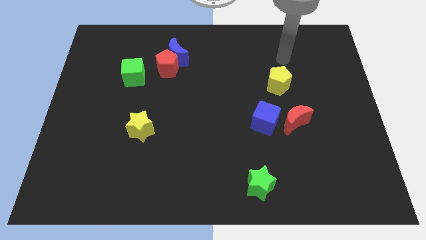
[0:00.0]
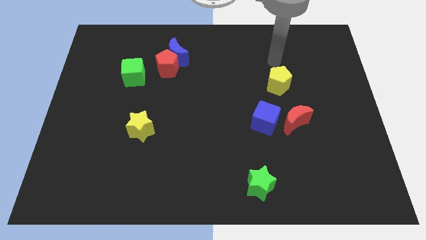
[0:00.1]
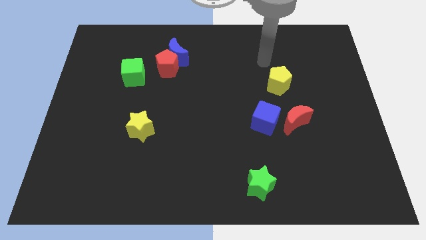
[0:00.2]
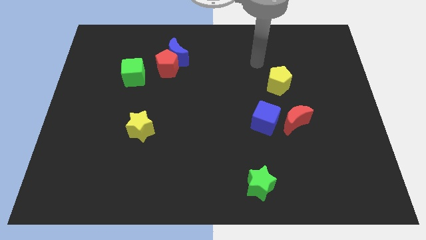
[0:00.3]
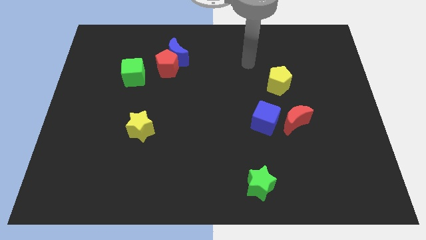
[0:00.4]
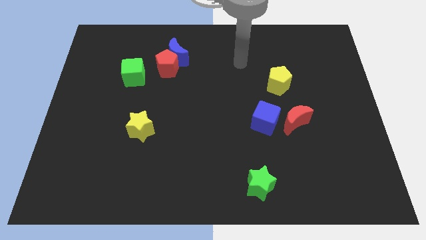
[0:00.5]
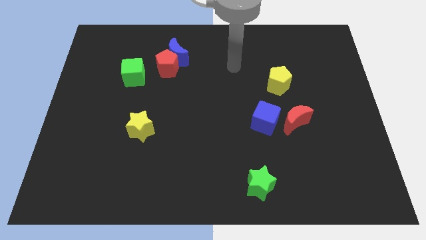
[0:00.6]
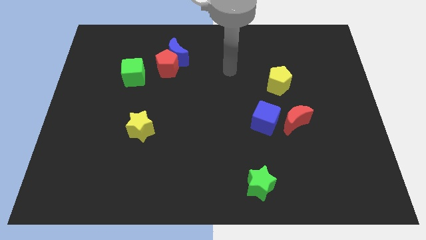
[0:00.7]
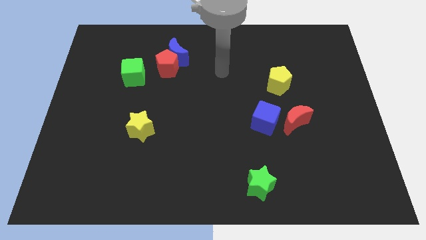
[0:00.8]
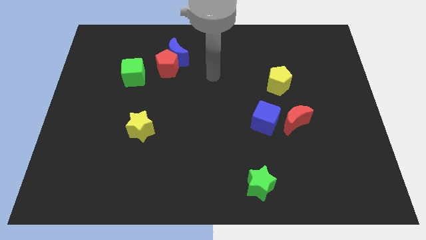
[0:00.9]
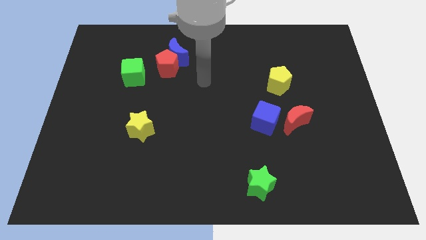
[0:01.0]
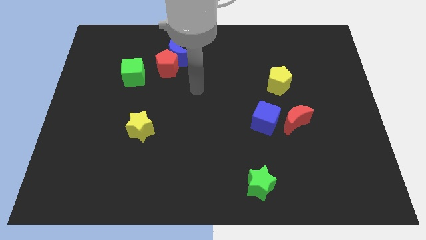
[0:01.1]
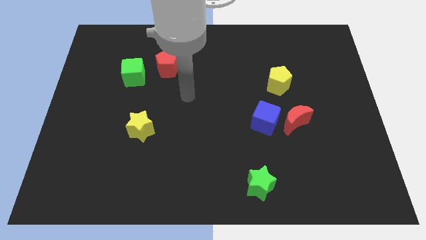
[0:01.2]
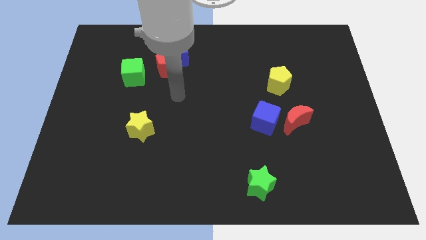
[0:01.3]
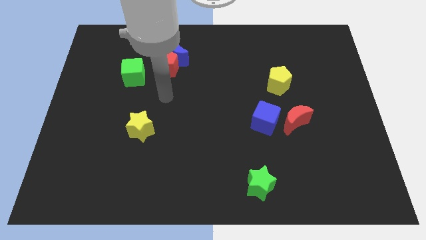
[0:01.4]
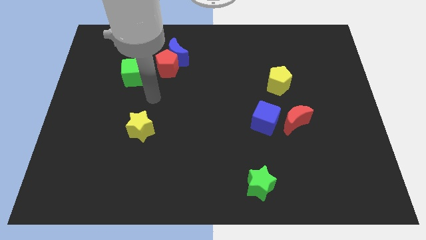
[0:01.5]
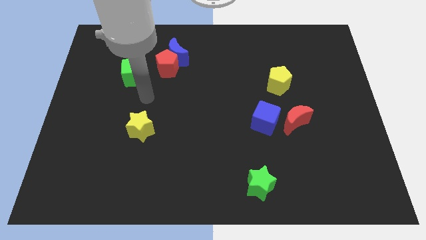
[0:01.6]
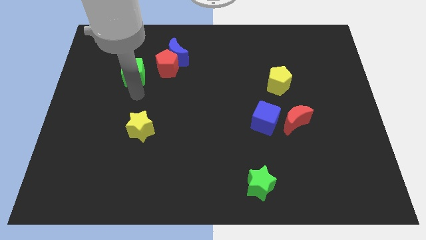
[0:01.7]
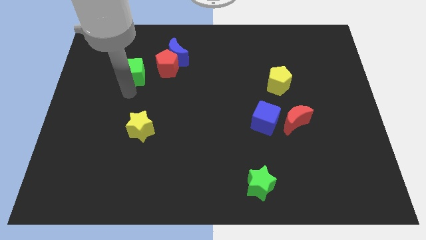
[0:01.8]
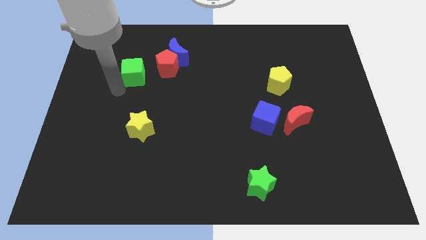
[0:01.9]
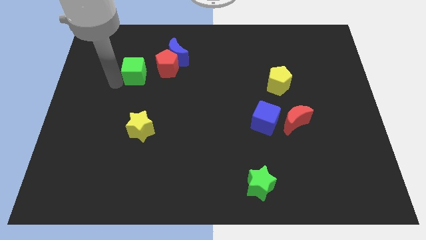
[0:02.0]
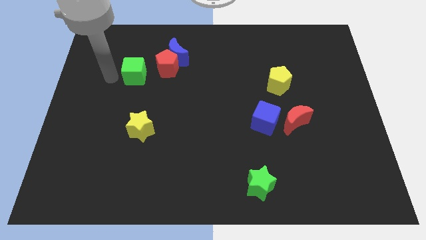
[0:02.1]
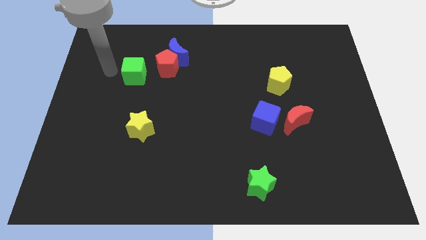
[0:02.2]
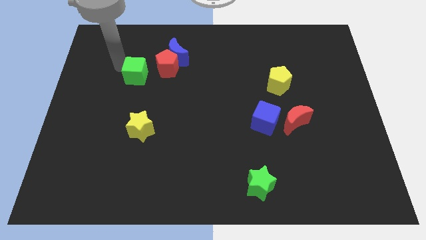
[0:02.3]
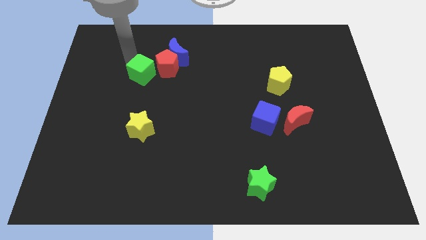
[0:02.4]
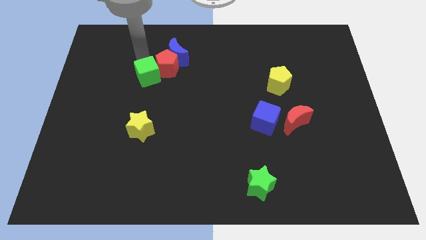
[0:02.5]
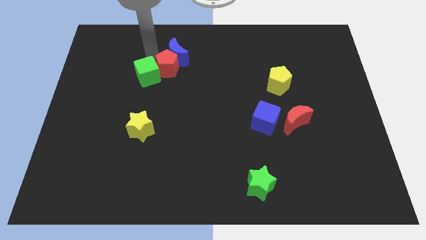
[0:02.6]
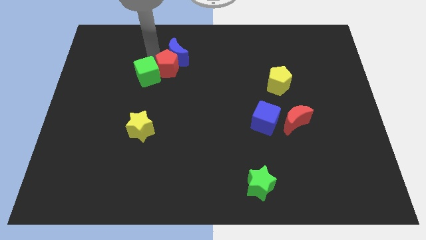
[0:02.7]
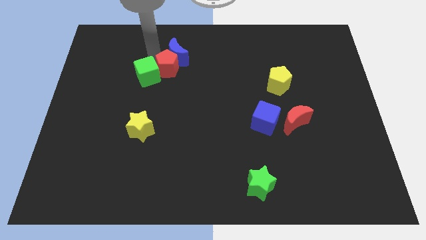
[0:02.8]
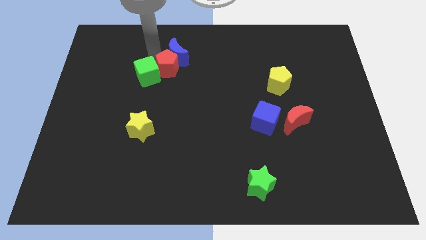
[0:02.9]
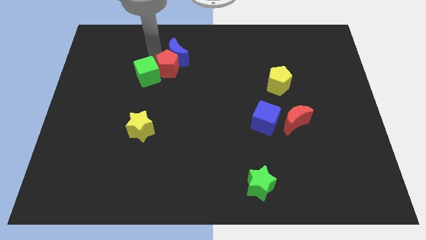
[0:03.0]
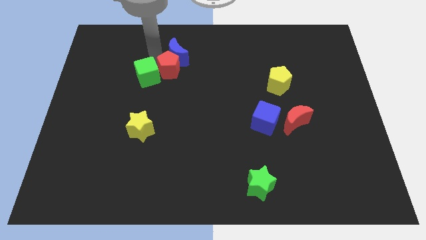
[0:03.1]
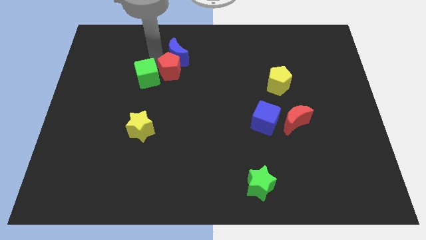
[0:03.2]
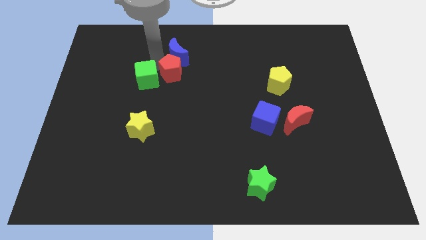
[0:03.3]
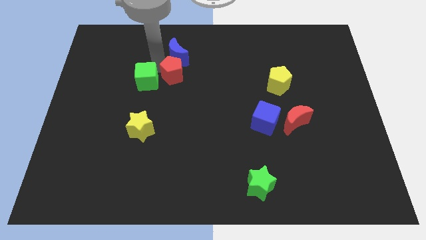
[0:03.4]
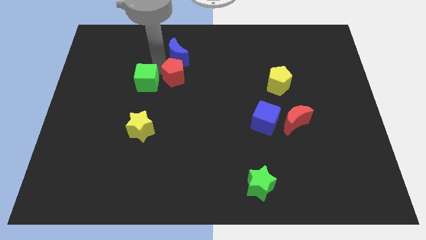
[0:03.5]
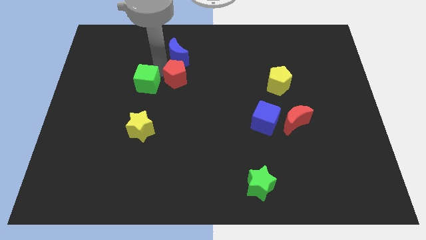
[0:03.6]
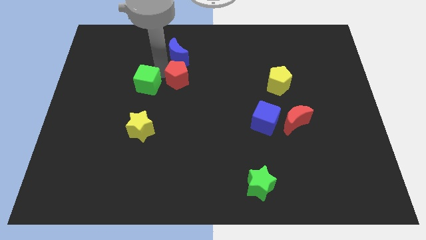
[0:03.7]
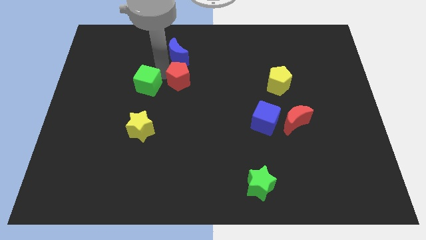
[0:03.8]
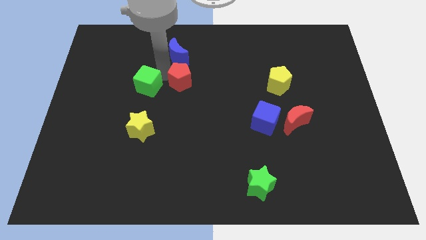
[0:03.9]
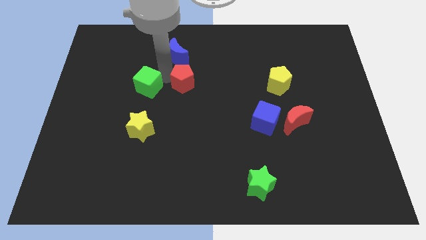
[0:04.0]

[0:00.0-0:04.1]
move the red pentagon diagonally downwards and to the right a bit

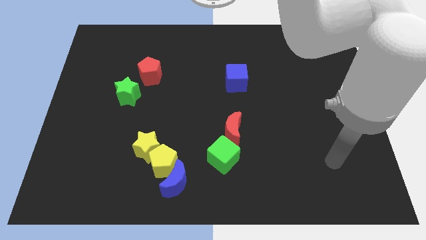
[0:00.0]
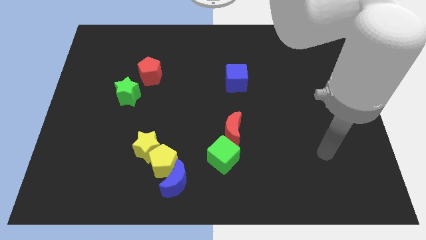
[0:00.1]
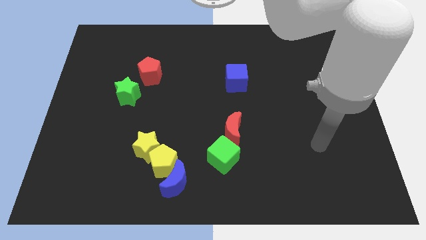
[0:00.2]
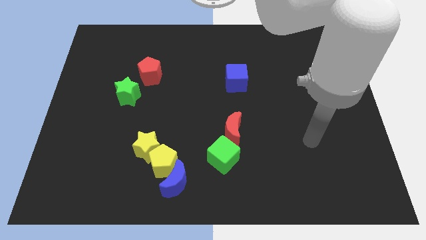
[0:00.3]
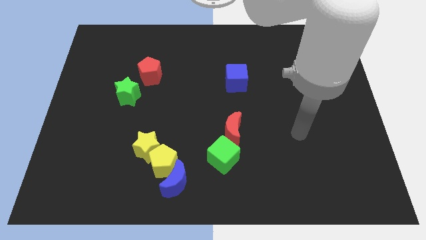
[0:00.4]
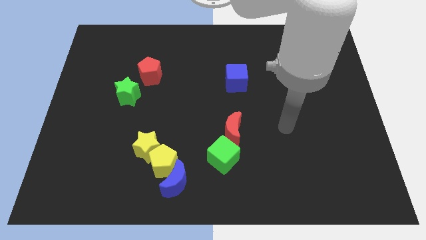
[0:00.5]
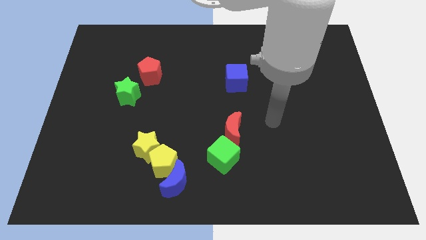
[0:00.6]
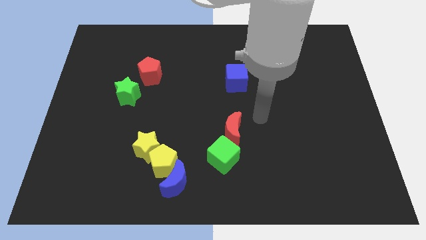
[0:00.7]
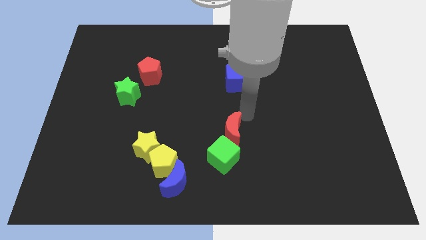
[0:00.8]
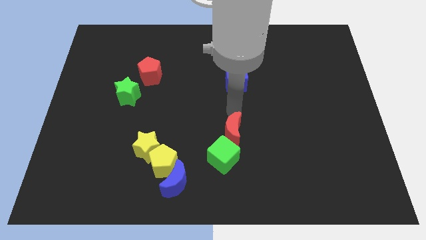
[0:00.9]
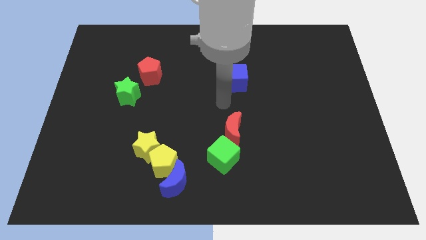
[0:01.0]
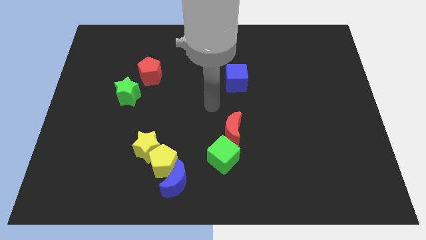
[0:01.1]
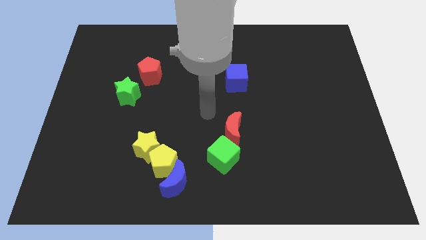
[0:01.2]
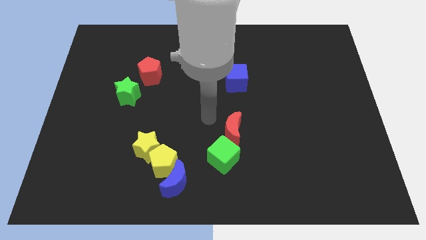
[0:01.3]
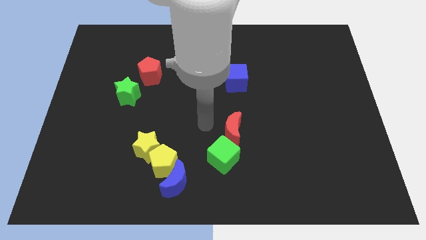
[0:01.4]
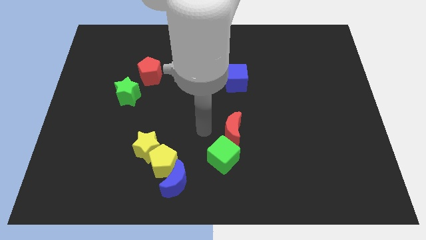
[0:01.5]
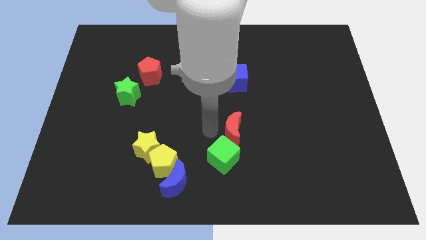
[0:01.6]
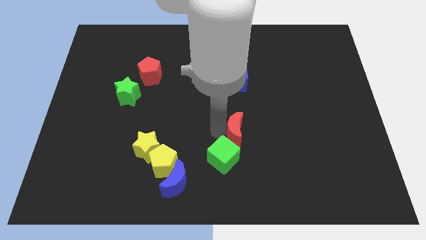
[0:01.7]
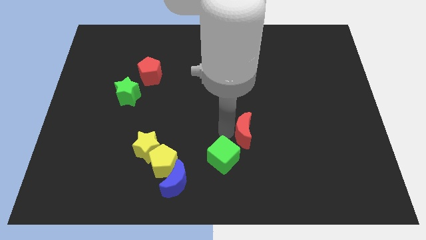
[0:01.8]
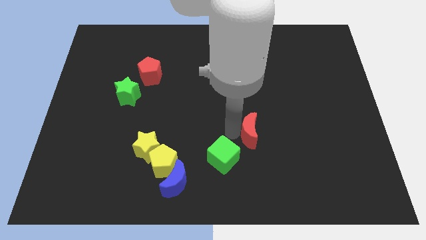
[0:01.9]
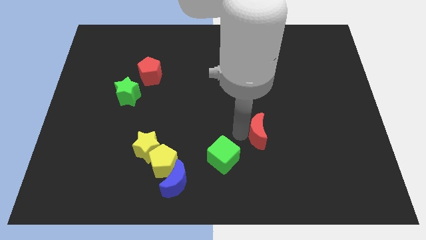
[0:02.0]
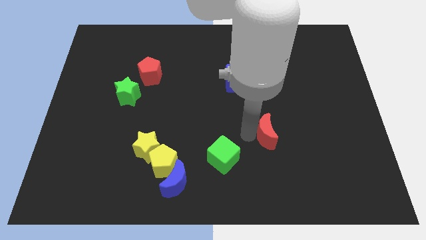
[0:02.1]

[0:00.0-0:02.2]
push the red moon a little to the right

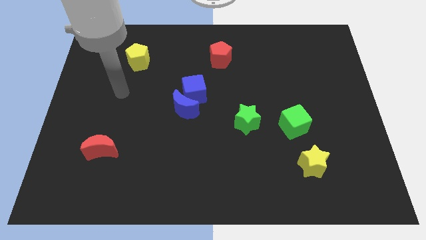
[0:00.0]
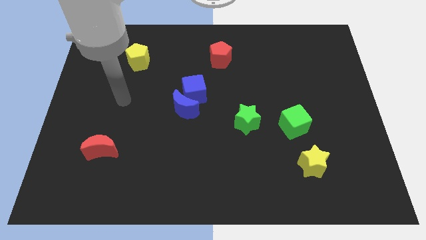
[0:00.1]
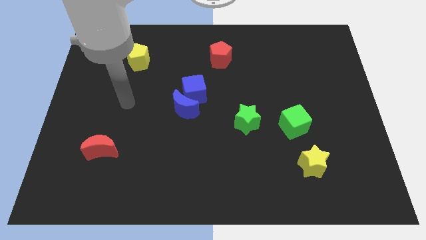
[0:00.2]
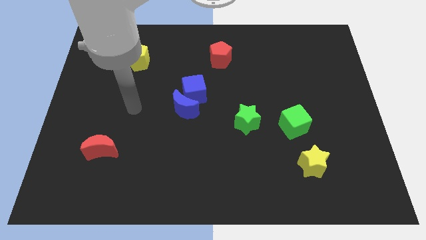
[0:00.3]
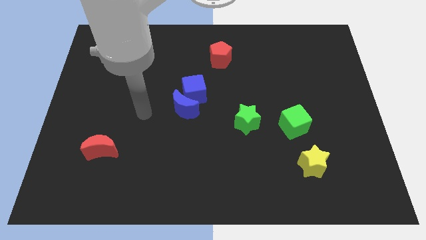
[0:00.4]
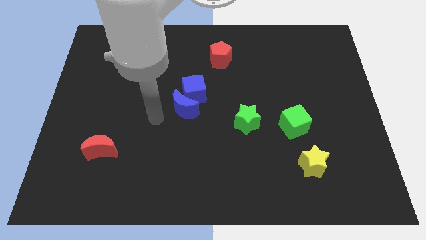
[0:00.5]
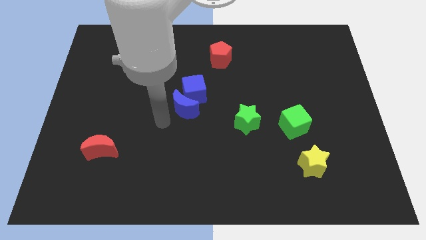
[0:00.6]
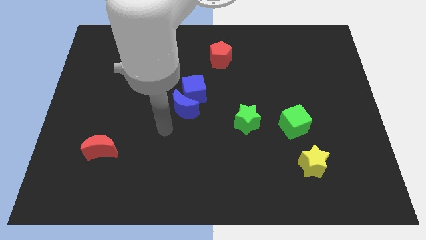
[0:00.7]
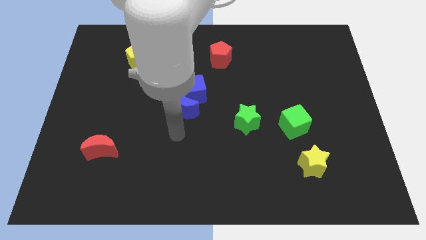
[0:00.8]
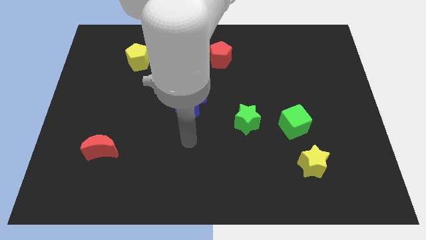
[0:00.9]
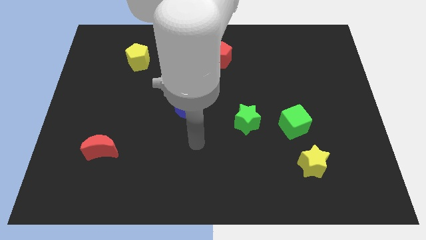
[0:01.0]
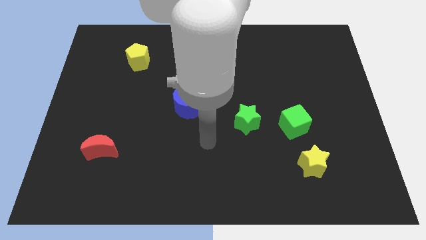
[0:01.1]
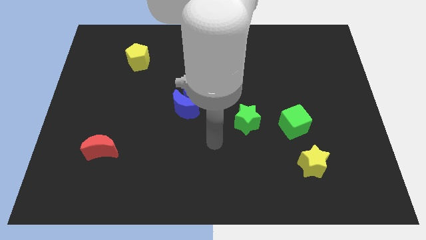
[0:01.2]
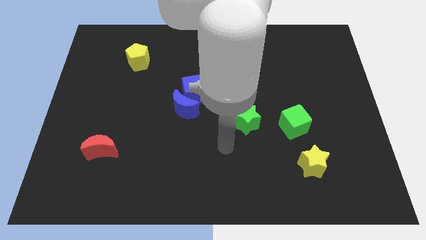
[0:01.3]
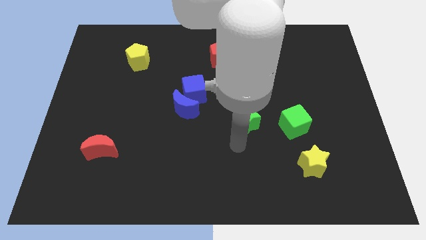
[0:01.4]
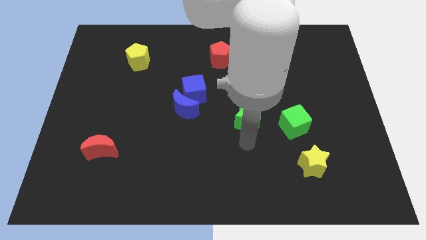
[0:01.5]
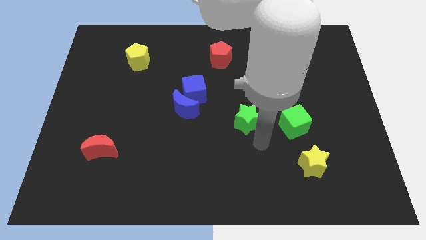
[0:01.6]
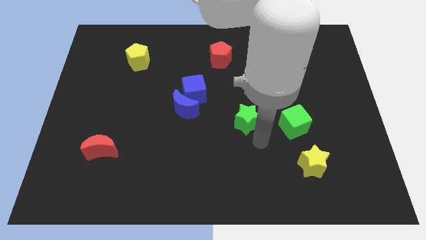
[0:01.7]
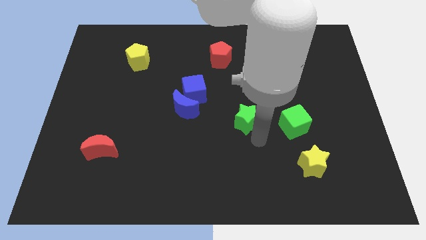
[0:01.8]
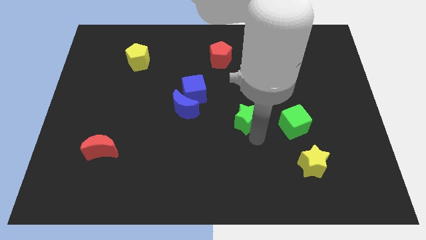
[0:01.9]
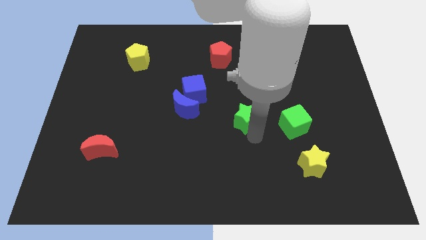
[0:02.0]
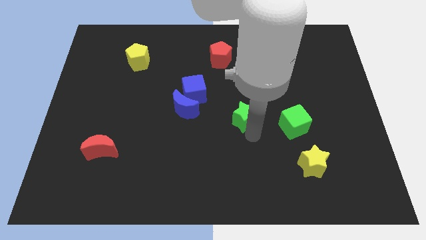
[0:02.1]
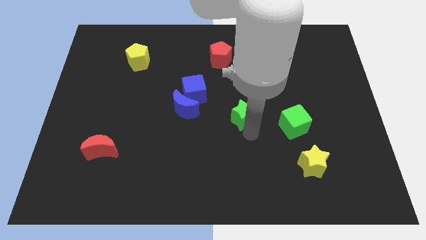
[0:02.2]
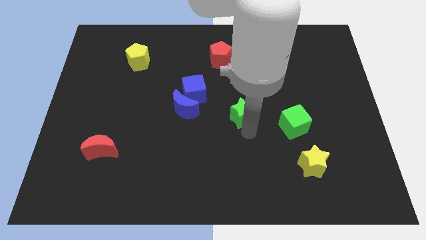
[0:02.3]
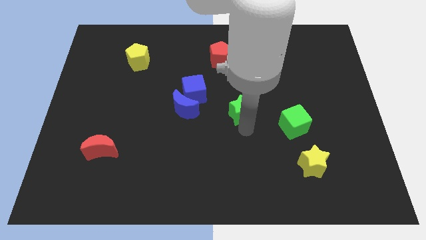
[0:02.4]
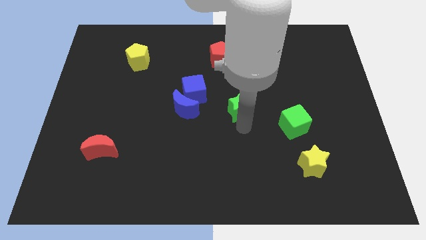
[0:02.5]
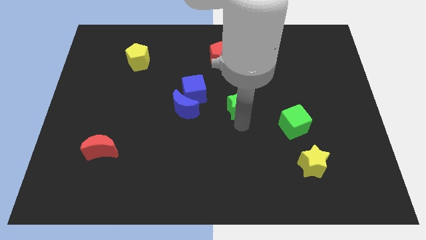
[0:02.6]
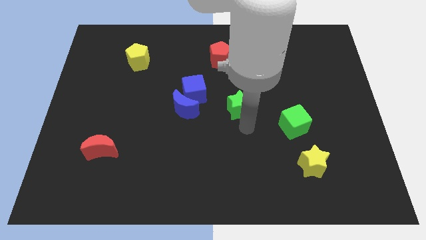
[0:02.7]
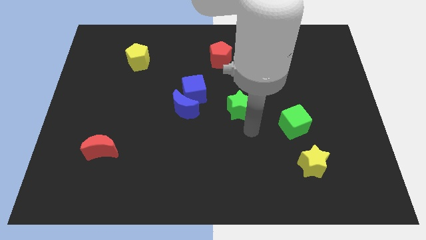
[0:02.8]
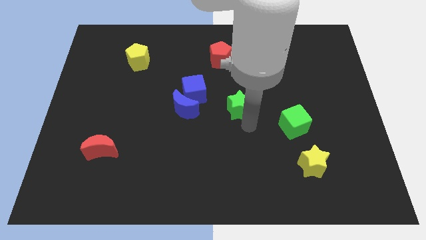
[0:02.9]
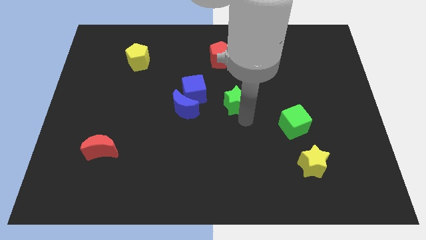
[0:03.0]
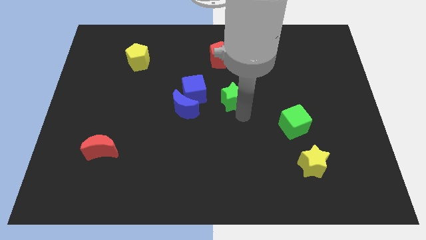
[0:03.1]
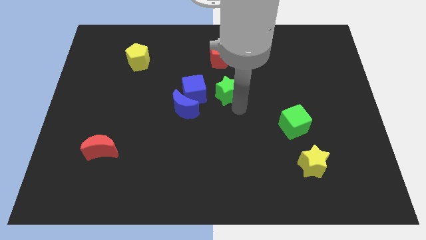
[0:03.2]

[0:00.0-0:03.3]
push the green star slightly upwards and left diagonally
